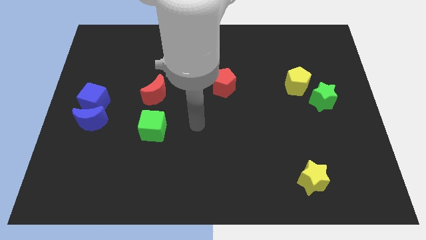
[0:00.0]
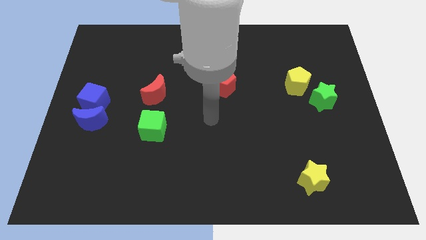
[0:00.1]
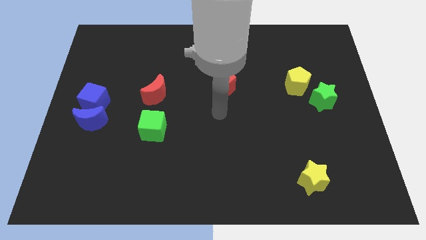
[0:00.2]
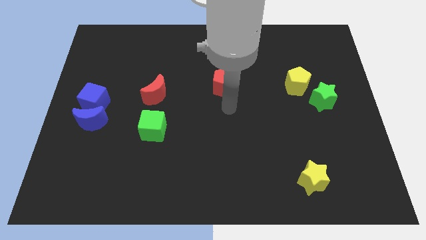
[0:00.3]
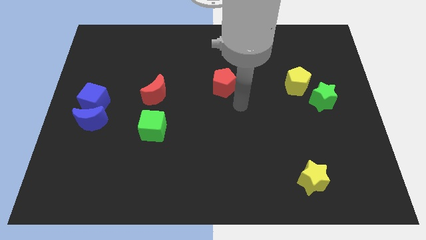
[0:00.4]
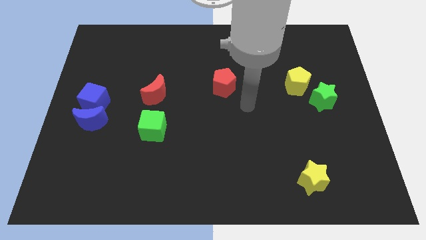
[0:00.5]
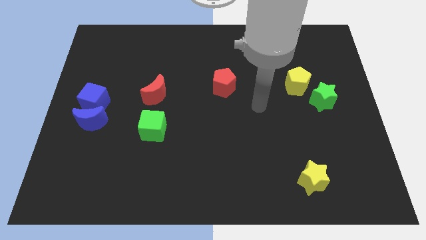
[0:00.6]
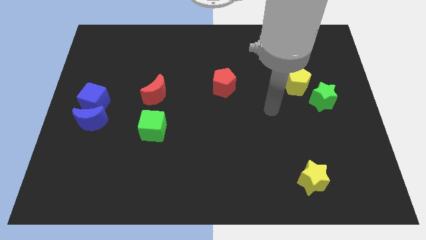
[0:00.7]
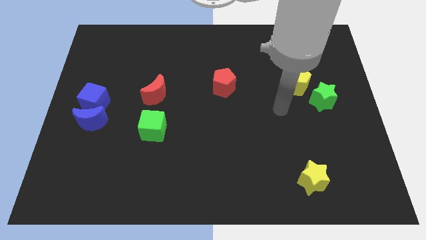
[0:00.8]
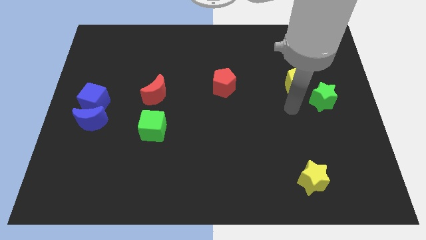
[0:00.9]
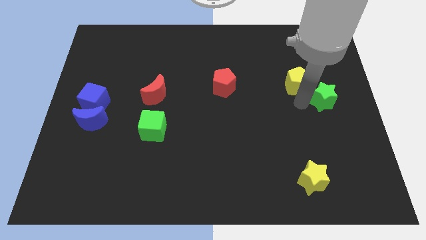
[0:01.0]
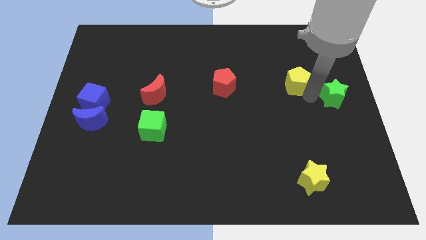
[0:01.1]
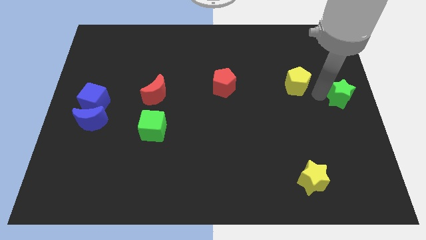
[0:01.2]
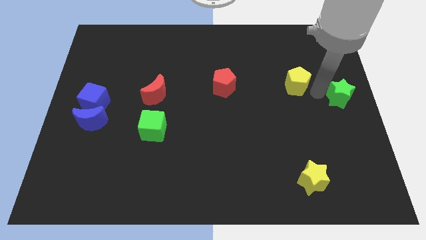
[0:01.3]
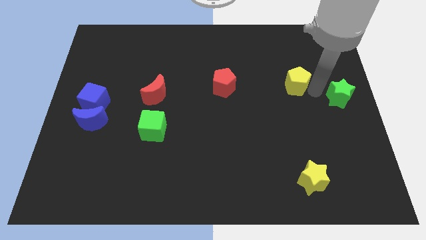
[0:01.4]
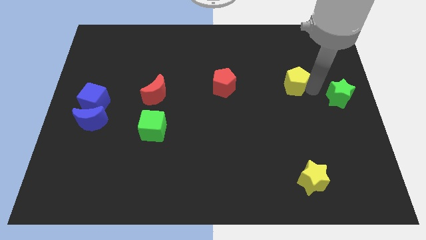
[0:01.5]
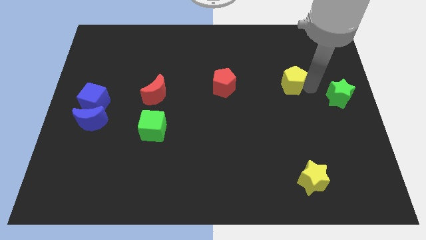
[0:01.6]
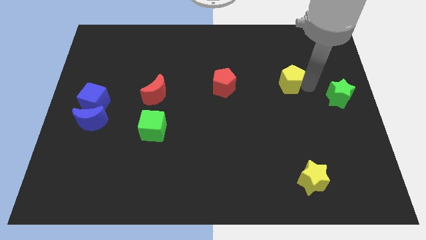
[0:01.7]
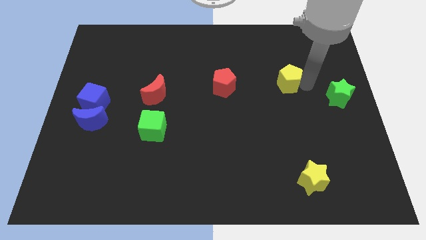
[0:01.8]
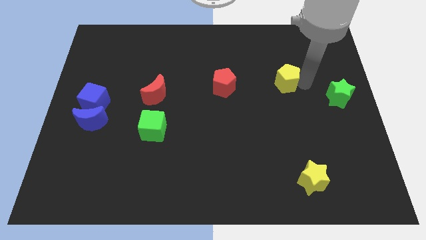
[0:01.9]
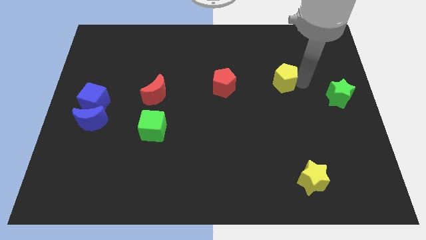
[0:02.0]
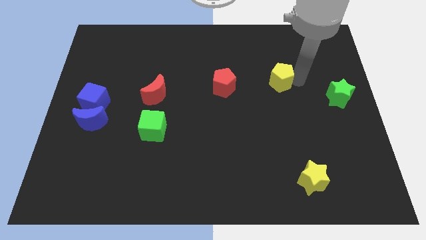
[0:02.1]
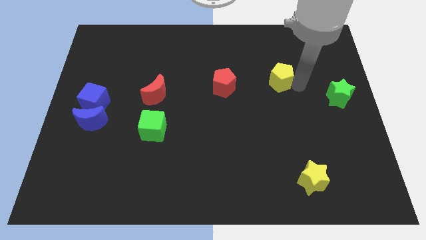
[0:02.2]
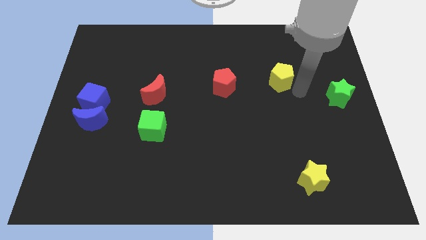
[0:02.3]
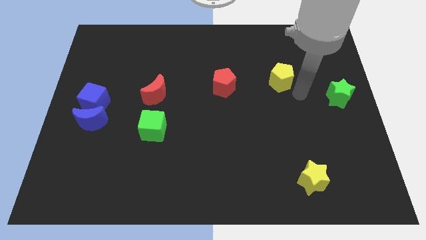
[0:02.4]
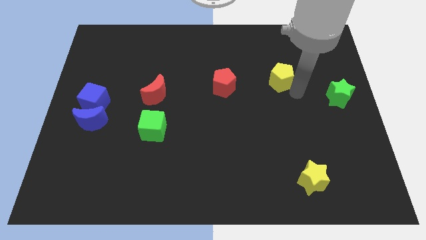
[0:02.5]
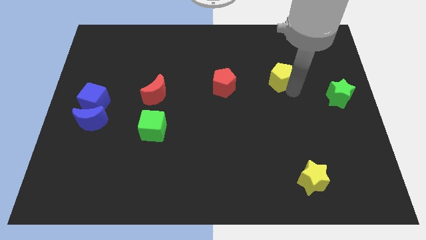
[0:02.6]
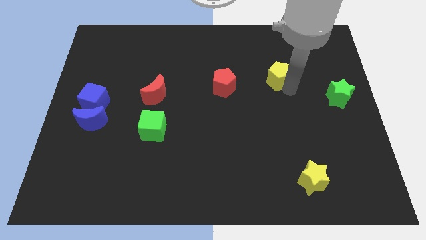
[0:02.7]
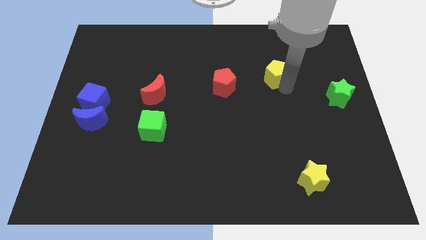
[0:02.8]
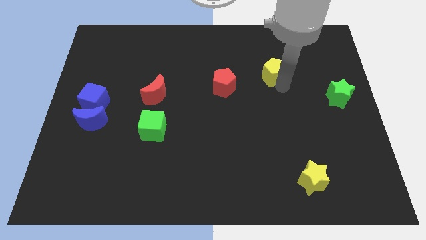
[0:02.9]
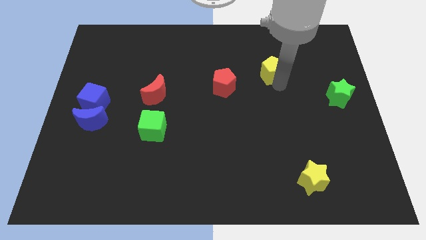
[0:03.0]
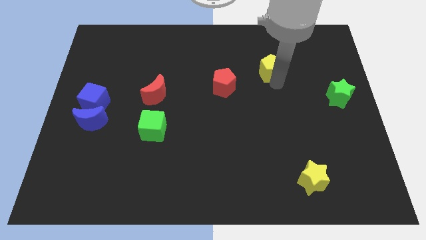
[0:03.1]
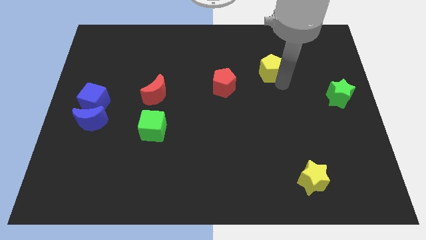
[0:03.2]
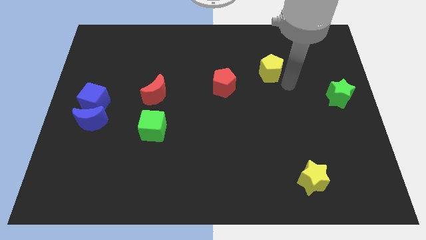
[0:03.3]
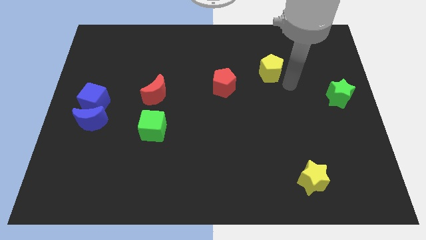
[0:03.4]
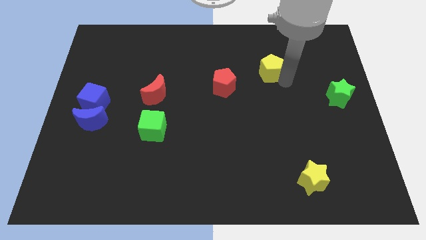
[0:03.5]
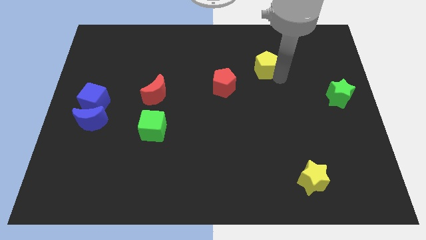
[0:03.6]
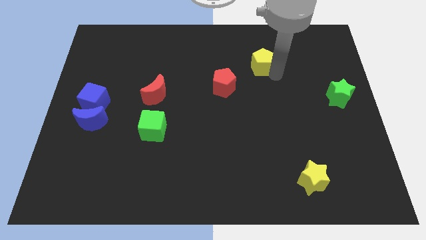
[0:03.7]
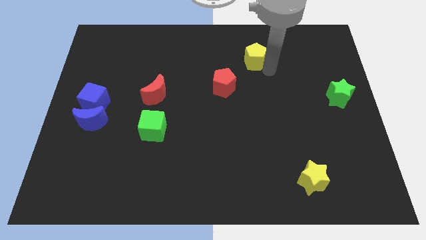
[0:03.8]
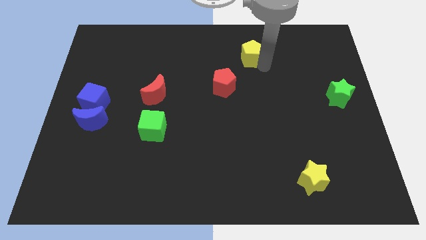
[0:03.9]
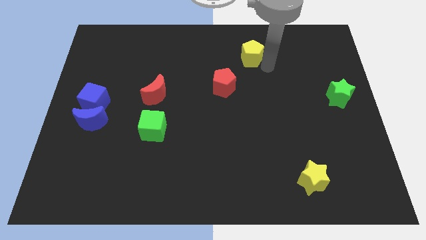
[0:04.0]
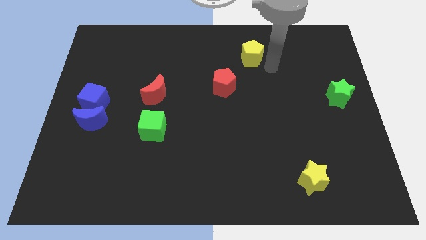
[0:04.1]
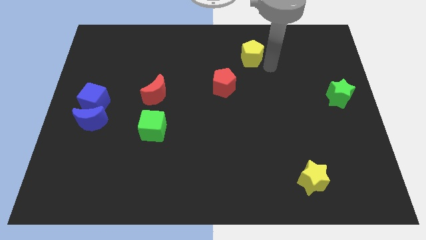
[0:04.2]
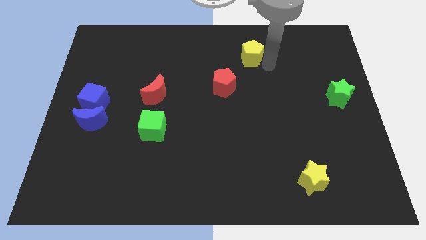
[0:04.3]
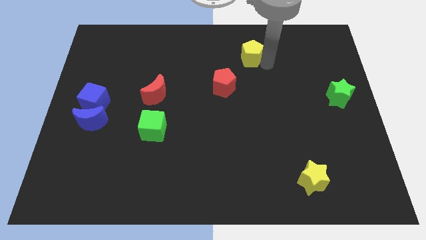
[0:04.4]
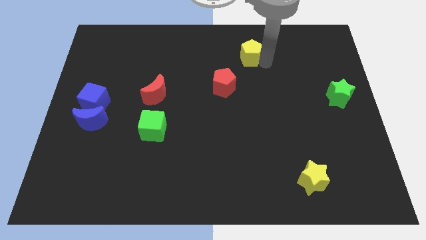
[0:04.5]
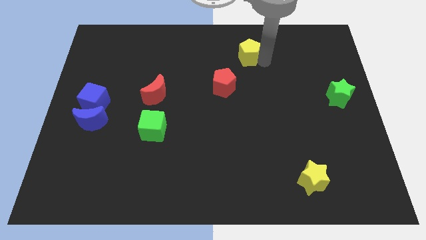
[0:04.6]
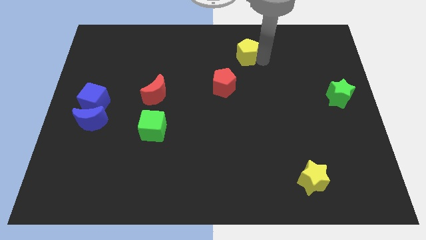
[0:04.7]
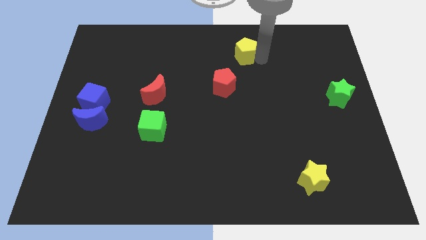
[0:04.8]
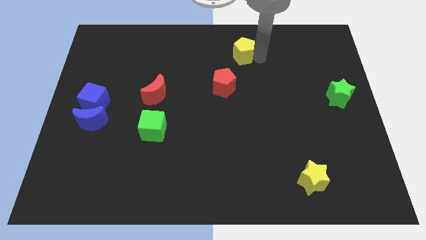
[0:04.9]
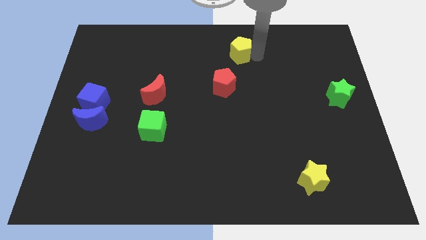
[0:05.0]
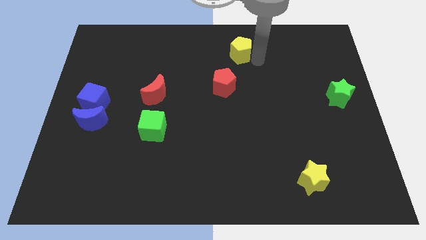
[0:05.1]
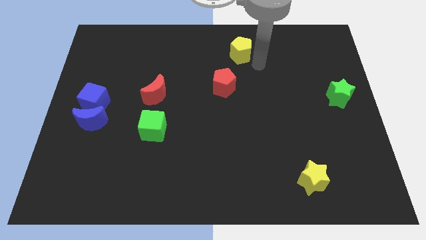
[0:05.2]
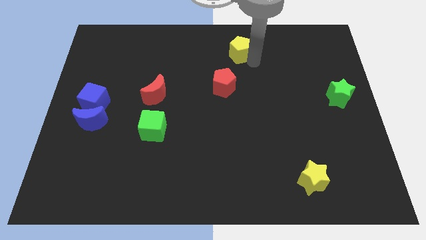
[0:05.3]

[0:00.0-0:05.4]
move the yellow pentagon to the top

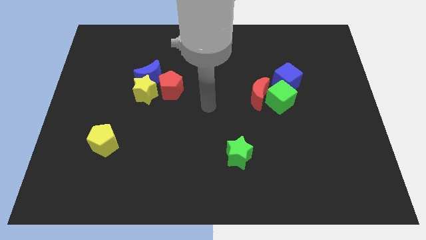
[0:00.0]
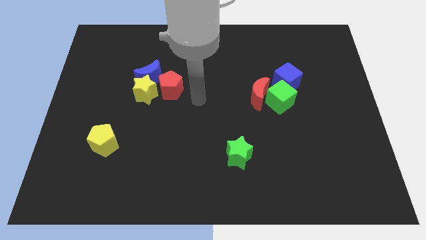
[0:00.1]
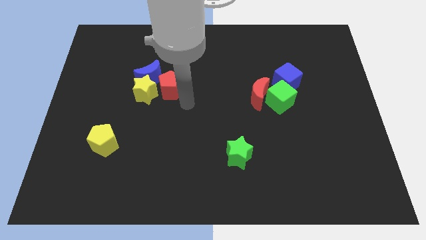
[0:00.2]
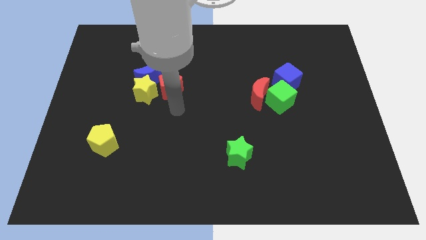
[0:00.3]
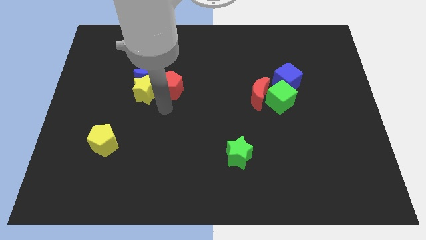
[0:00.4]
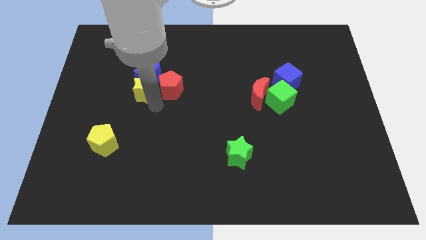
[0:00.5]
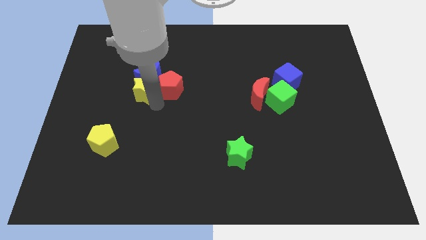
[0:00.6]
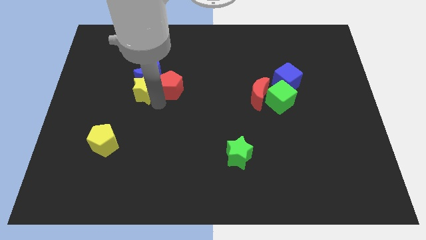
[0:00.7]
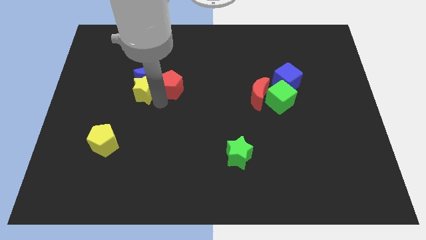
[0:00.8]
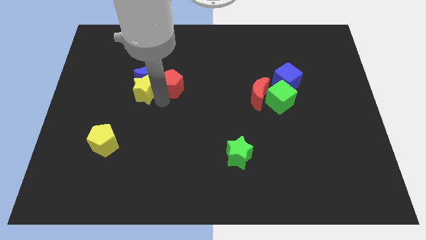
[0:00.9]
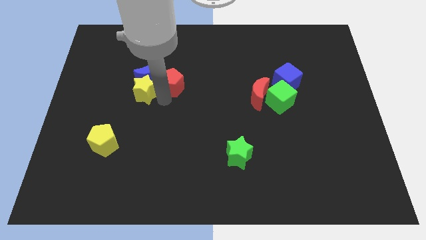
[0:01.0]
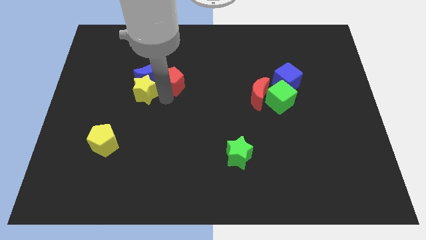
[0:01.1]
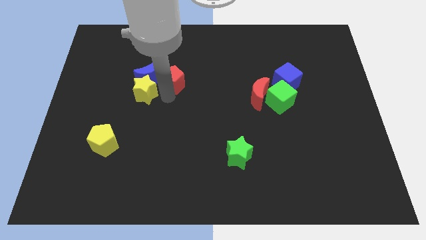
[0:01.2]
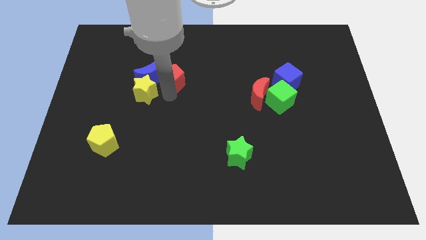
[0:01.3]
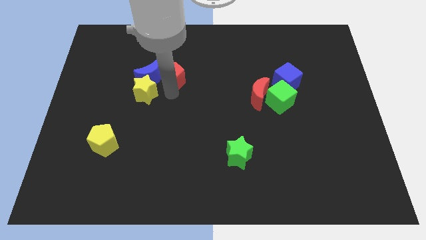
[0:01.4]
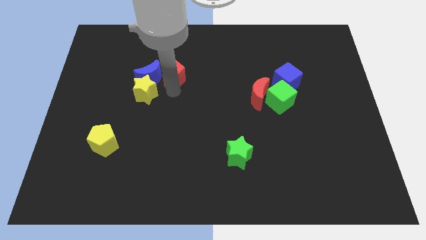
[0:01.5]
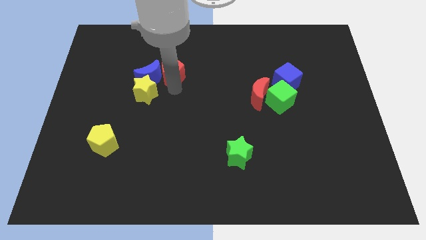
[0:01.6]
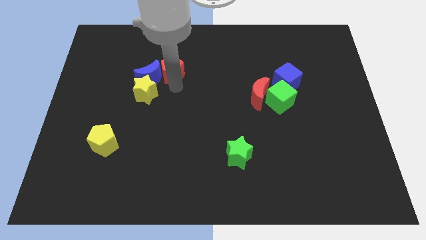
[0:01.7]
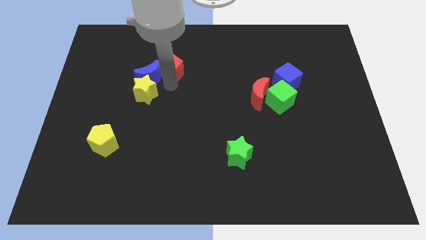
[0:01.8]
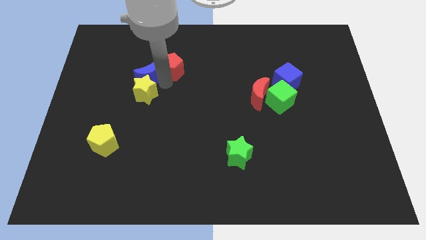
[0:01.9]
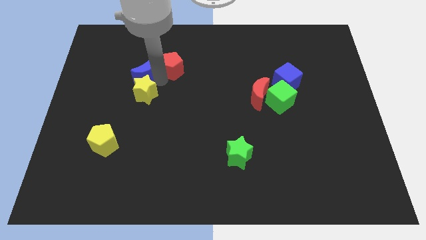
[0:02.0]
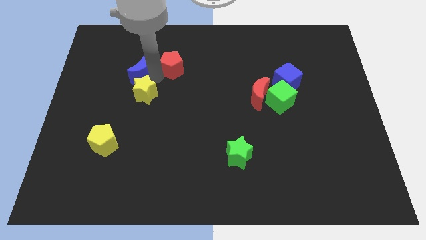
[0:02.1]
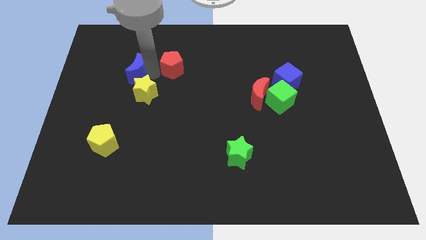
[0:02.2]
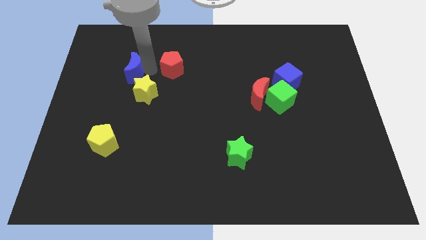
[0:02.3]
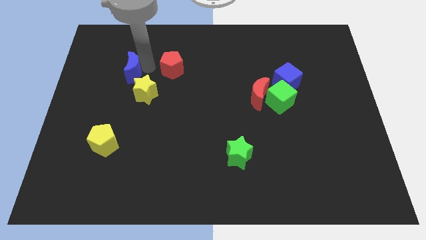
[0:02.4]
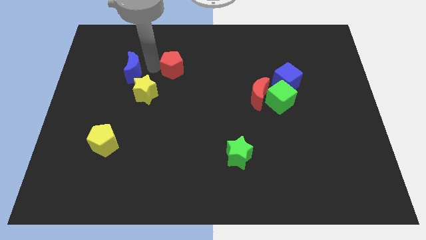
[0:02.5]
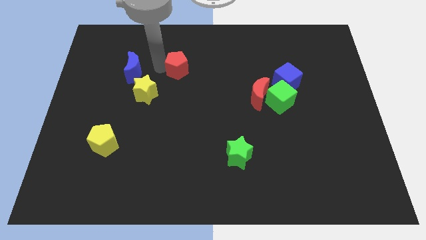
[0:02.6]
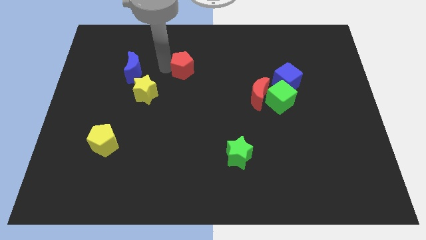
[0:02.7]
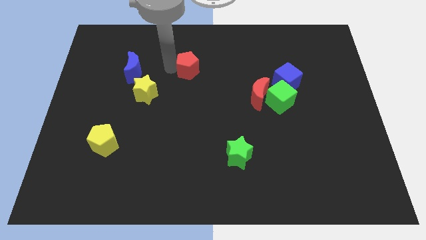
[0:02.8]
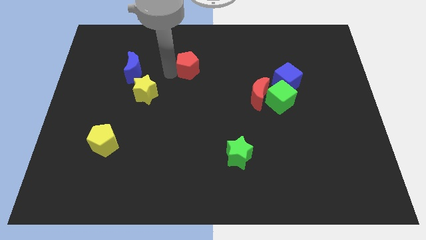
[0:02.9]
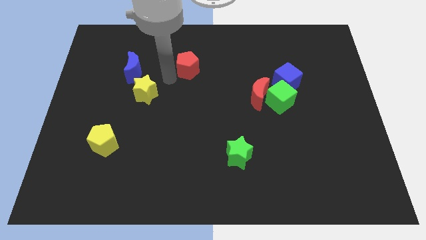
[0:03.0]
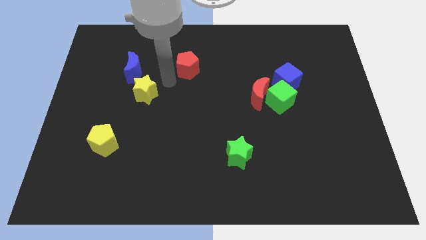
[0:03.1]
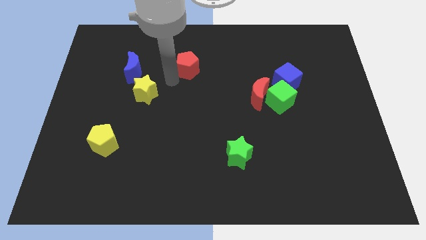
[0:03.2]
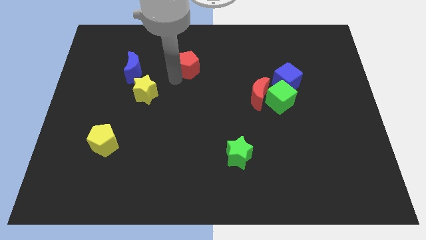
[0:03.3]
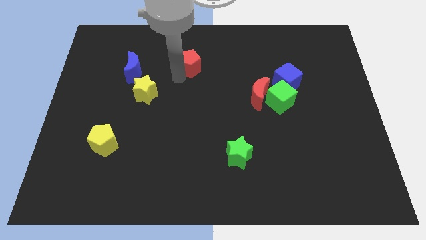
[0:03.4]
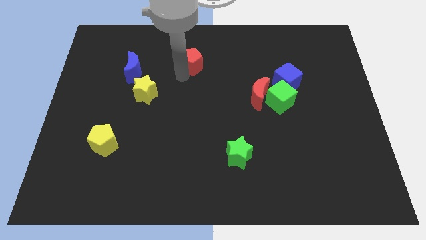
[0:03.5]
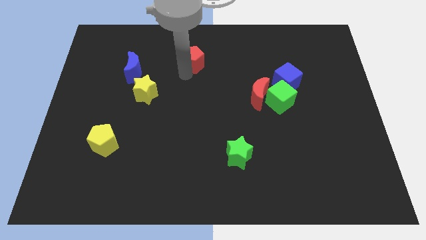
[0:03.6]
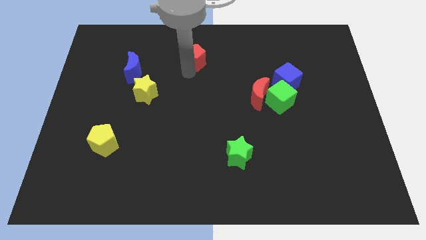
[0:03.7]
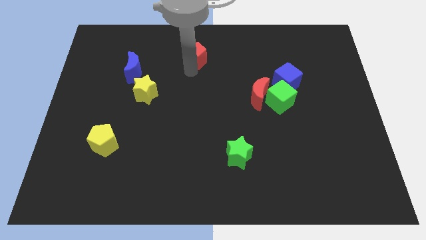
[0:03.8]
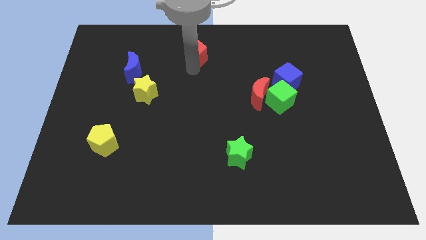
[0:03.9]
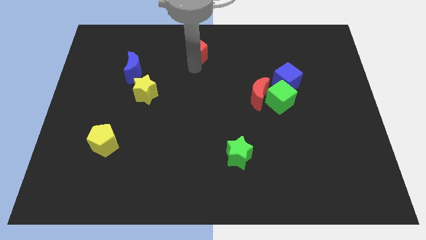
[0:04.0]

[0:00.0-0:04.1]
slide the red pentagon to the towards your base
